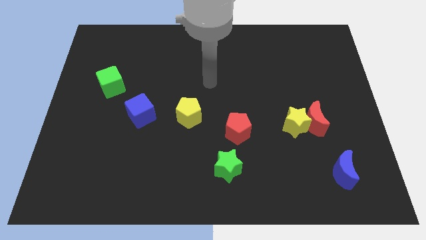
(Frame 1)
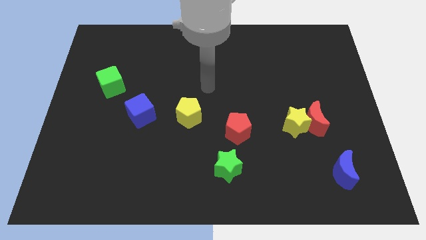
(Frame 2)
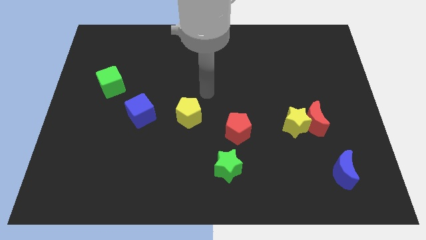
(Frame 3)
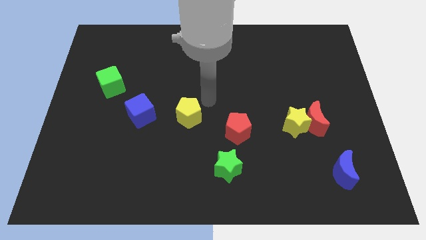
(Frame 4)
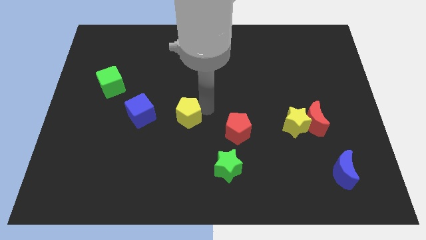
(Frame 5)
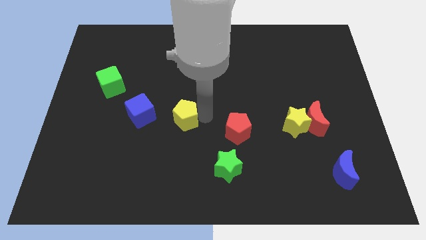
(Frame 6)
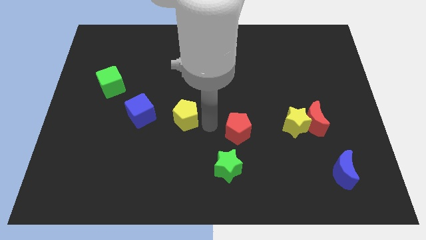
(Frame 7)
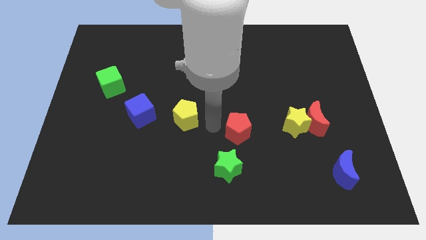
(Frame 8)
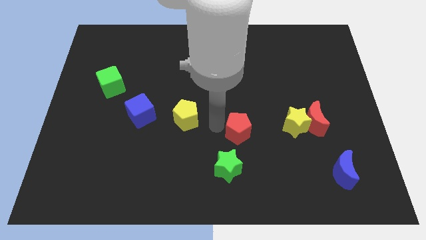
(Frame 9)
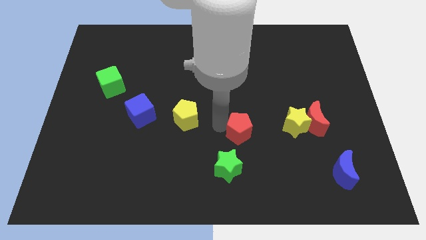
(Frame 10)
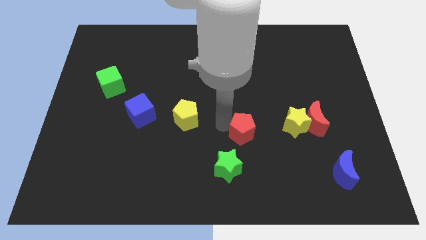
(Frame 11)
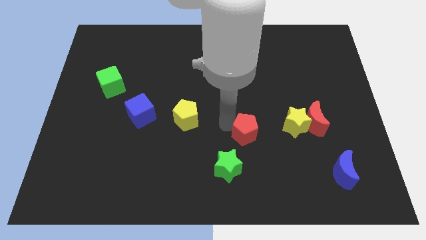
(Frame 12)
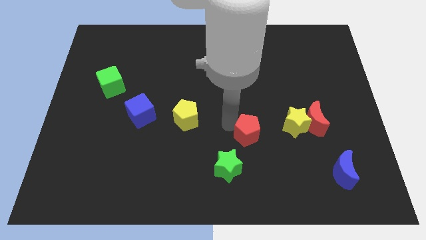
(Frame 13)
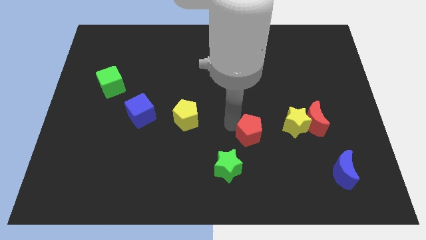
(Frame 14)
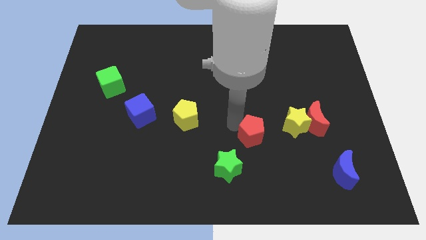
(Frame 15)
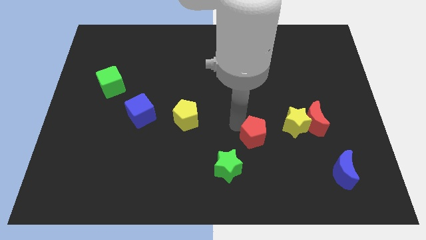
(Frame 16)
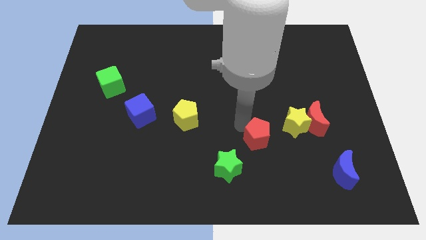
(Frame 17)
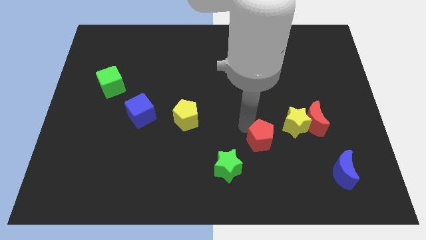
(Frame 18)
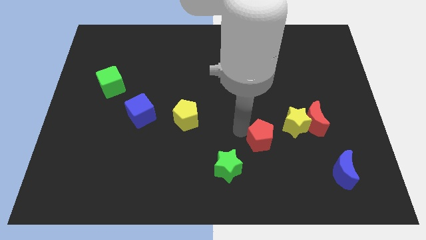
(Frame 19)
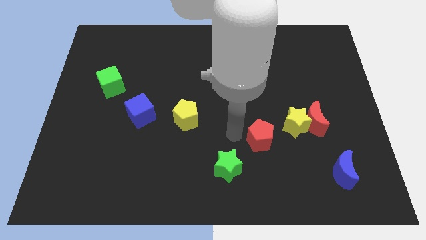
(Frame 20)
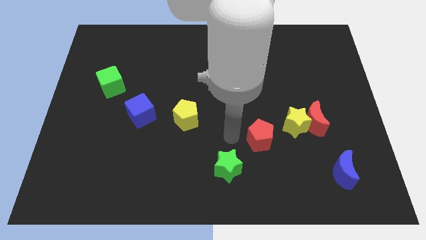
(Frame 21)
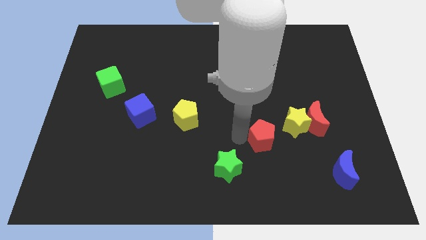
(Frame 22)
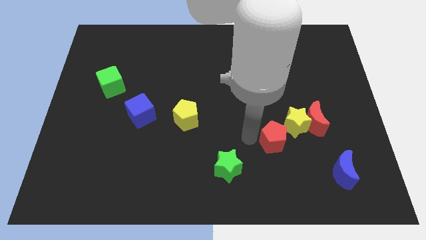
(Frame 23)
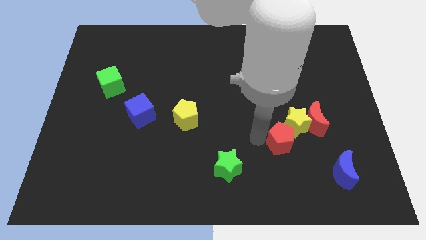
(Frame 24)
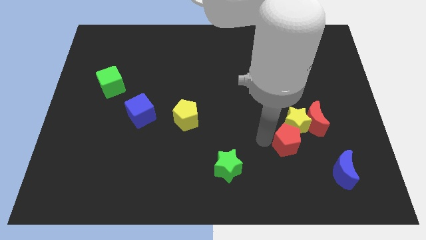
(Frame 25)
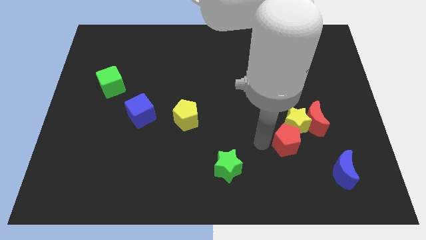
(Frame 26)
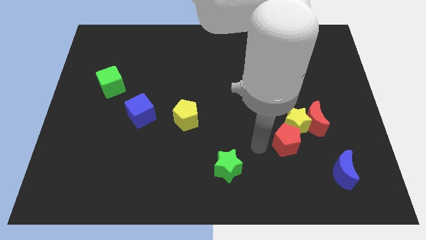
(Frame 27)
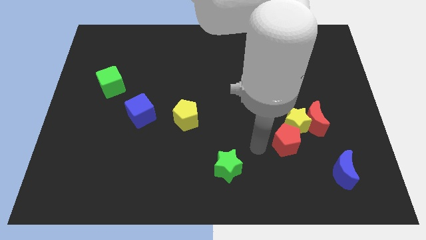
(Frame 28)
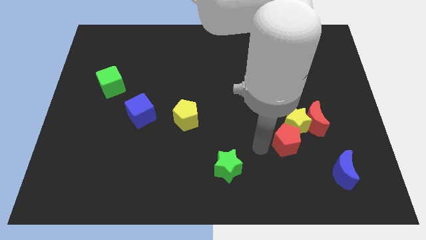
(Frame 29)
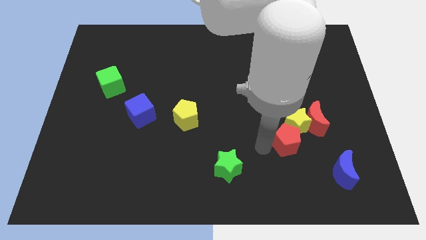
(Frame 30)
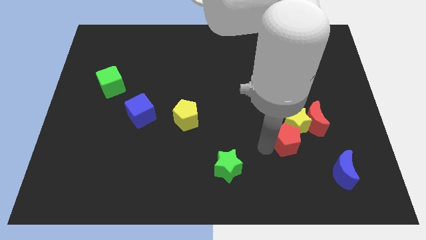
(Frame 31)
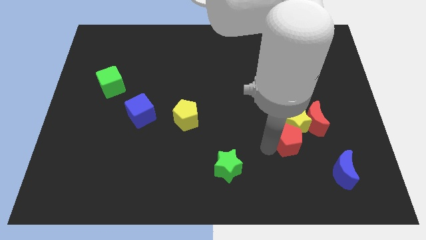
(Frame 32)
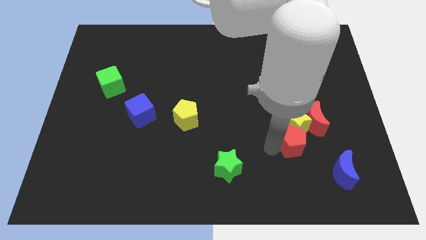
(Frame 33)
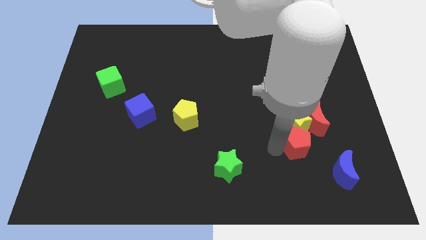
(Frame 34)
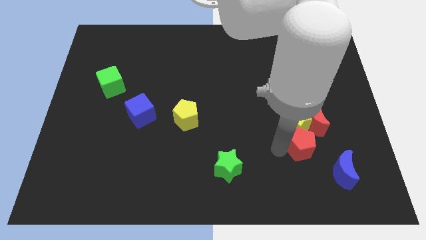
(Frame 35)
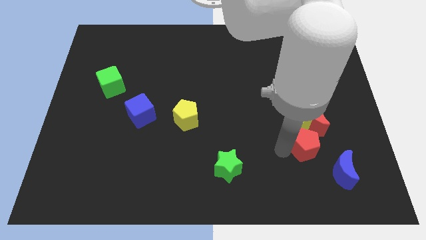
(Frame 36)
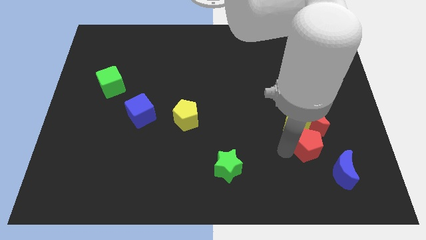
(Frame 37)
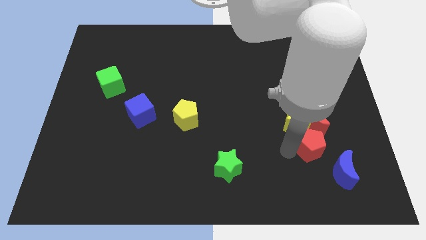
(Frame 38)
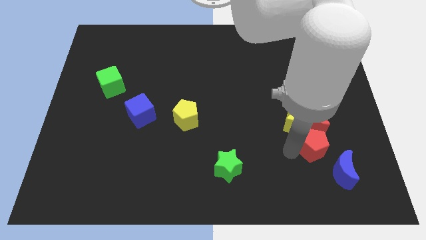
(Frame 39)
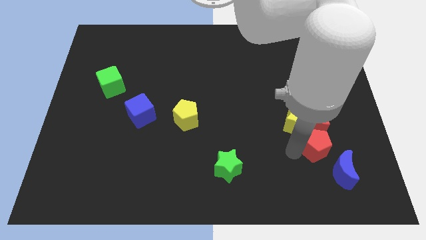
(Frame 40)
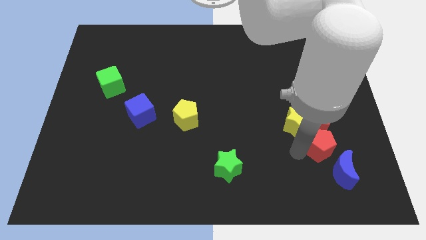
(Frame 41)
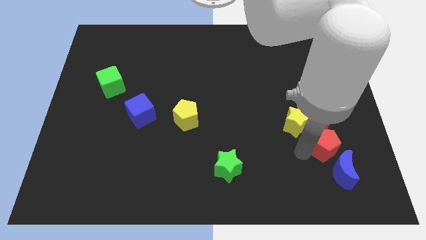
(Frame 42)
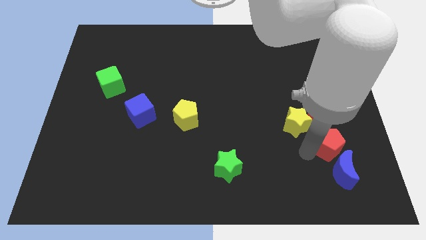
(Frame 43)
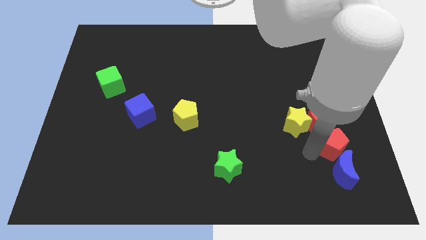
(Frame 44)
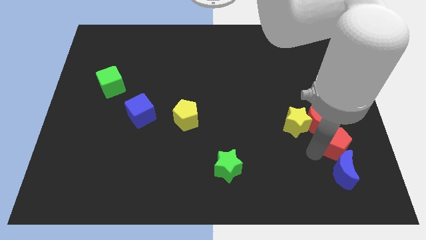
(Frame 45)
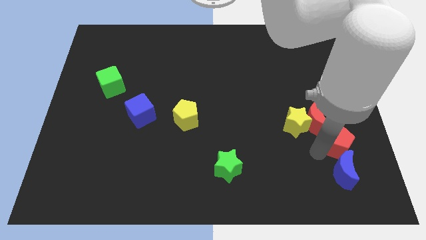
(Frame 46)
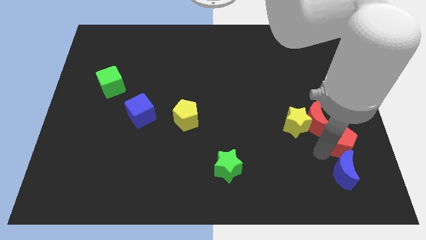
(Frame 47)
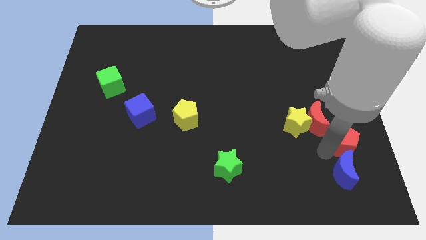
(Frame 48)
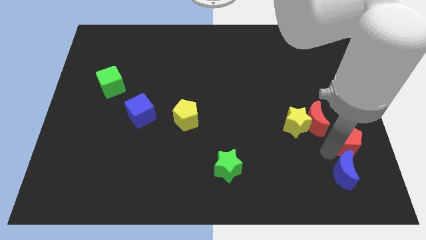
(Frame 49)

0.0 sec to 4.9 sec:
slide the red pentagon just right of the yellow star

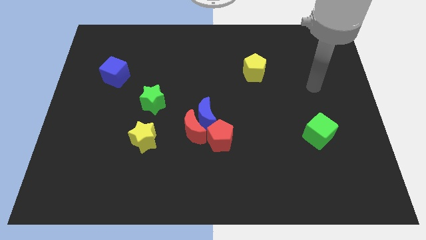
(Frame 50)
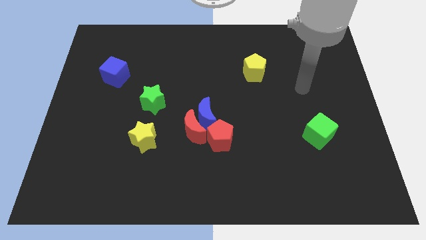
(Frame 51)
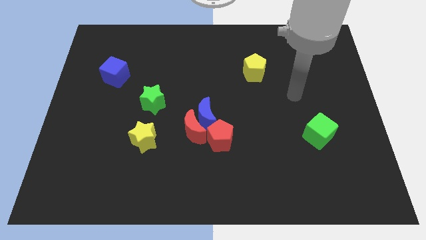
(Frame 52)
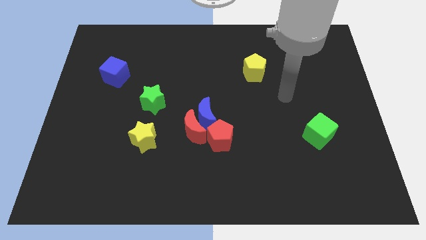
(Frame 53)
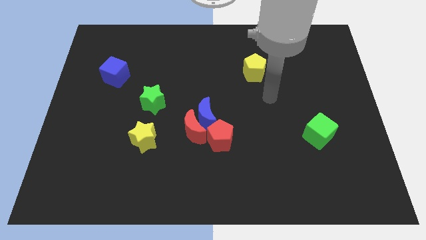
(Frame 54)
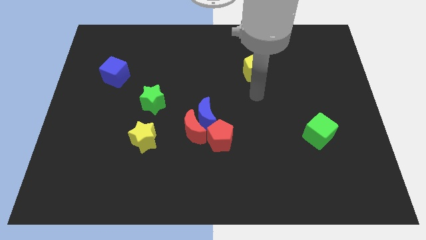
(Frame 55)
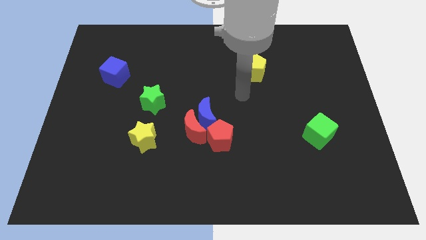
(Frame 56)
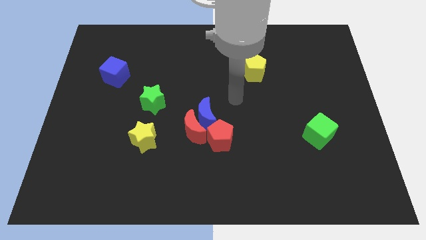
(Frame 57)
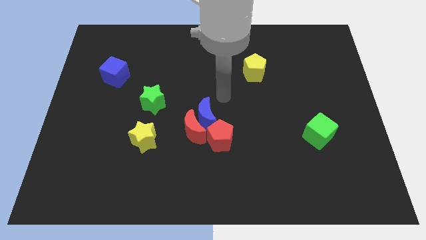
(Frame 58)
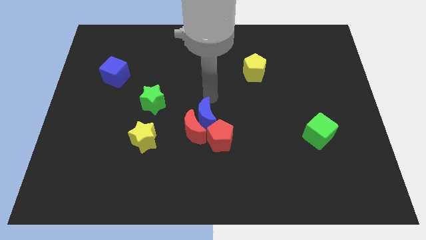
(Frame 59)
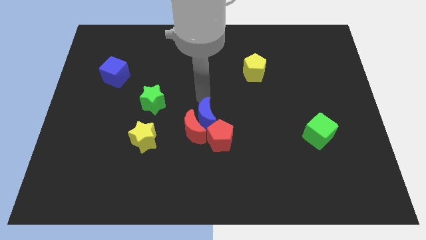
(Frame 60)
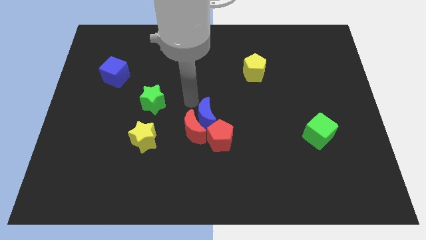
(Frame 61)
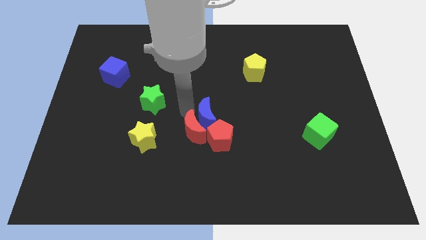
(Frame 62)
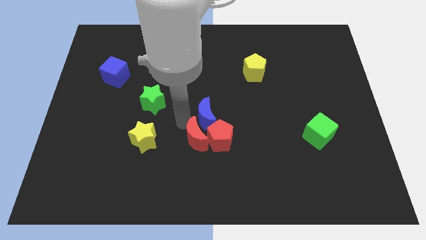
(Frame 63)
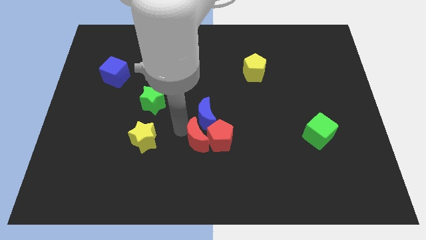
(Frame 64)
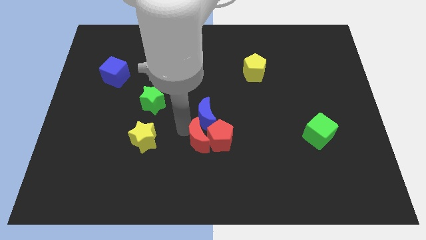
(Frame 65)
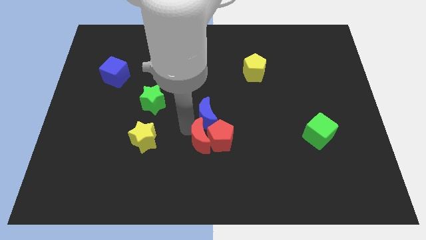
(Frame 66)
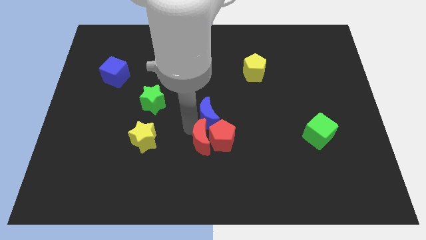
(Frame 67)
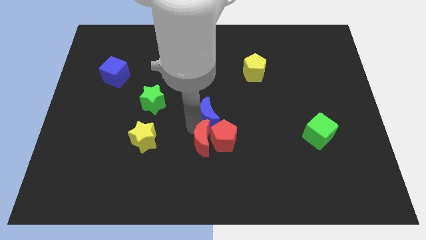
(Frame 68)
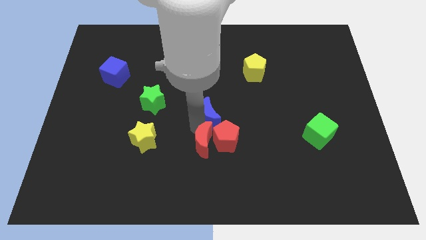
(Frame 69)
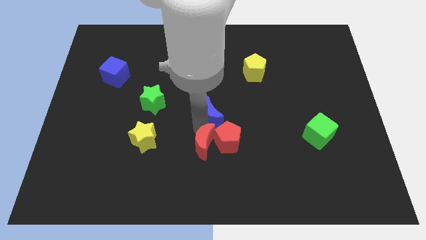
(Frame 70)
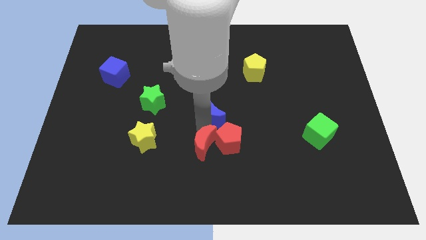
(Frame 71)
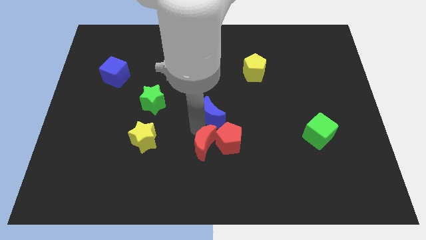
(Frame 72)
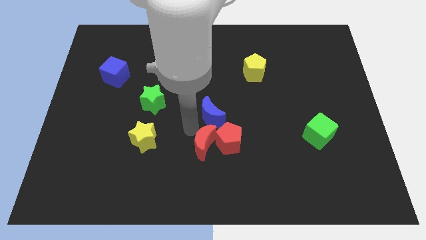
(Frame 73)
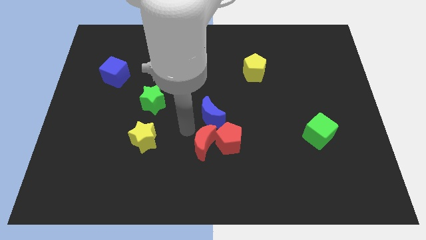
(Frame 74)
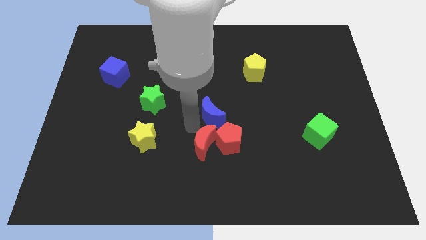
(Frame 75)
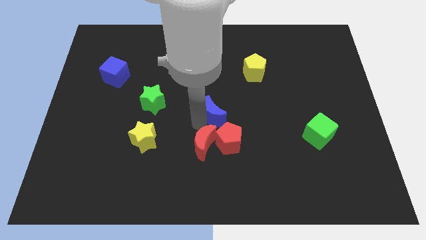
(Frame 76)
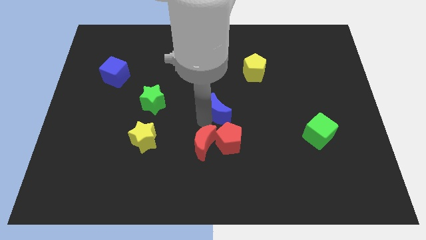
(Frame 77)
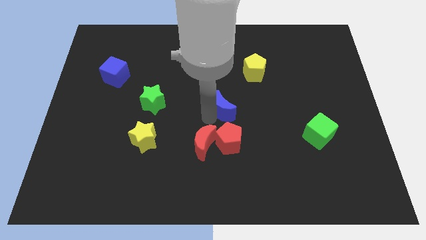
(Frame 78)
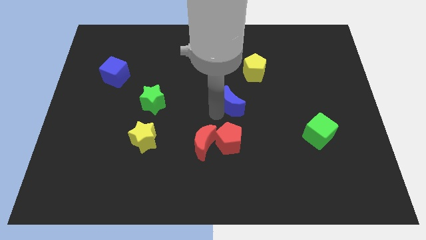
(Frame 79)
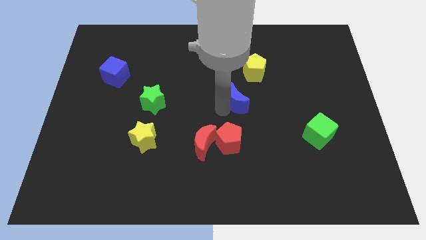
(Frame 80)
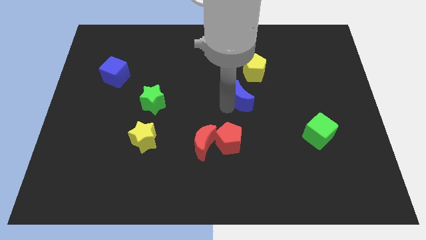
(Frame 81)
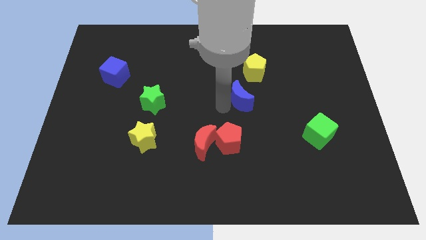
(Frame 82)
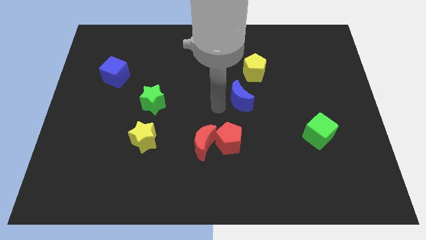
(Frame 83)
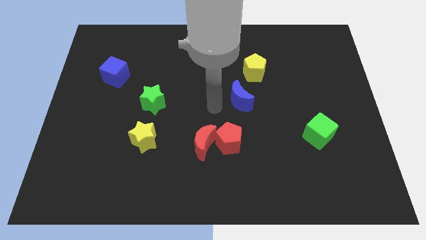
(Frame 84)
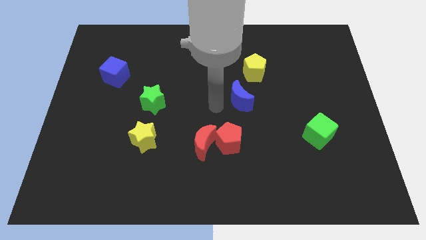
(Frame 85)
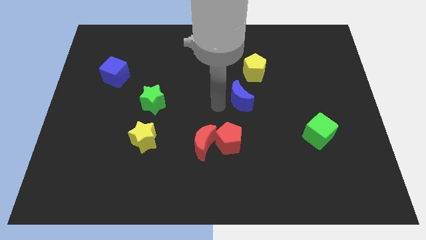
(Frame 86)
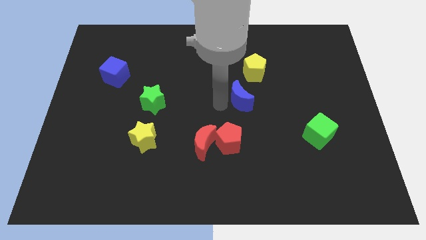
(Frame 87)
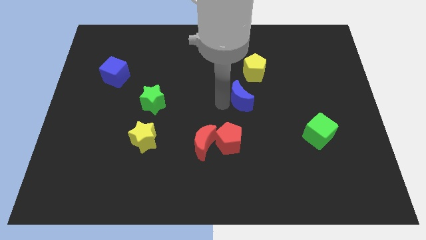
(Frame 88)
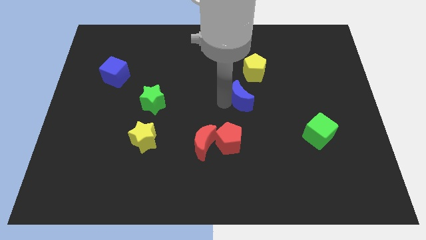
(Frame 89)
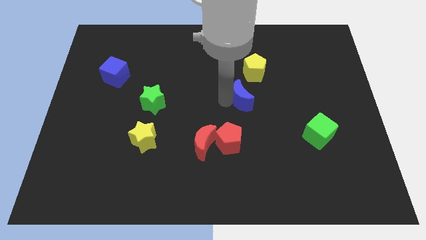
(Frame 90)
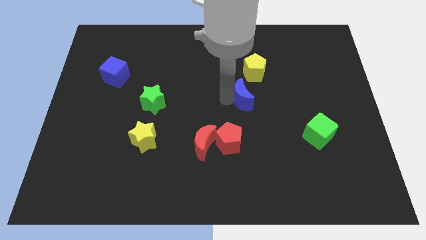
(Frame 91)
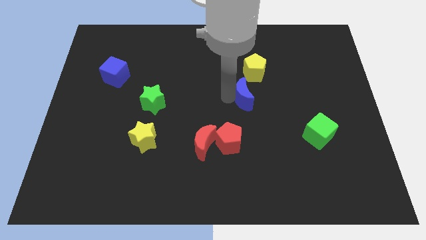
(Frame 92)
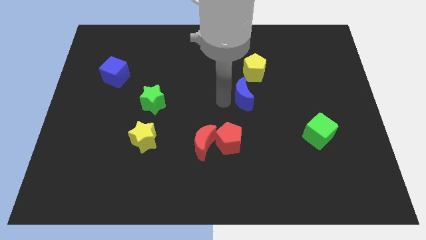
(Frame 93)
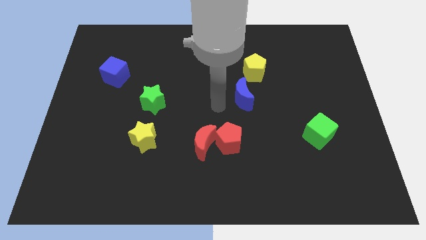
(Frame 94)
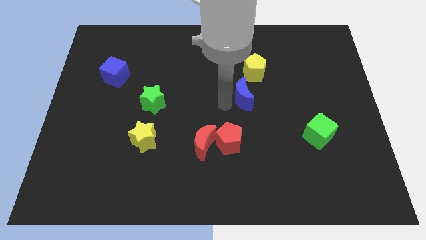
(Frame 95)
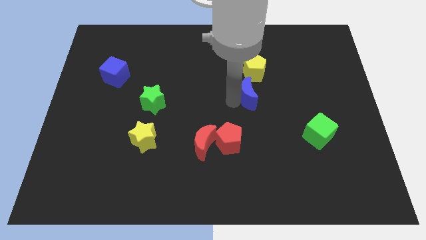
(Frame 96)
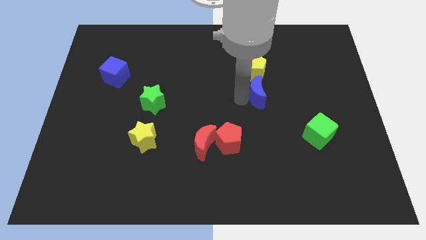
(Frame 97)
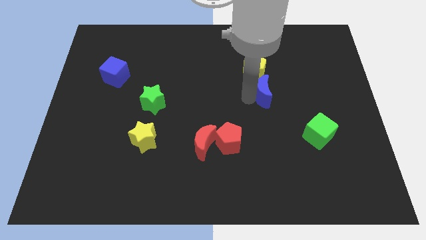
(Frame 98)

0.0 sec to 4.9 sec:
move the blue moon to the bottom right side of the yellow pentagon
